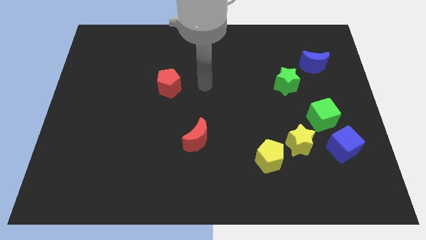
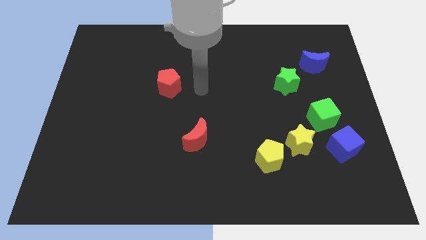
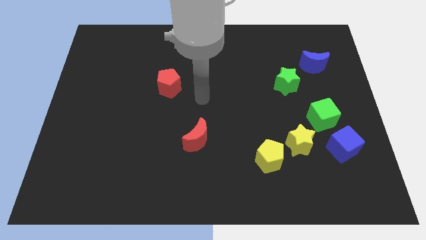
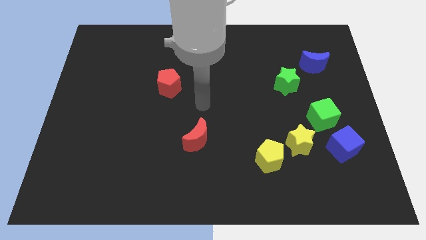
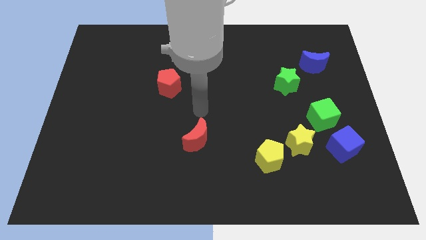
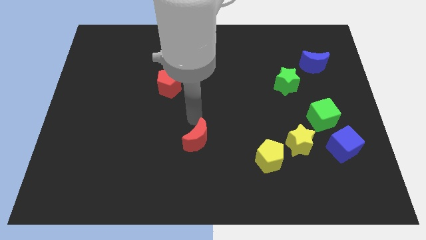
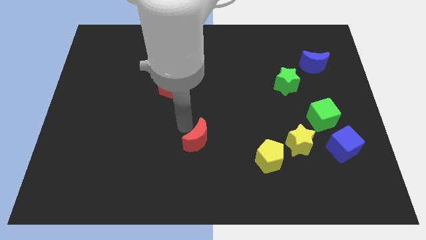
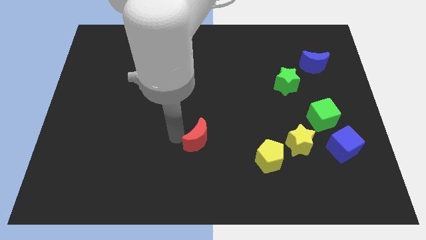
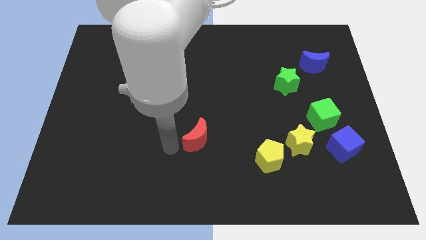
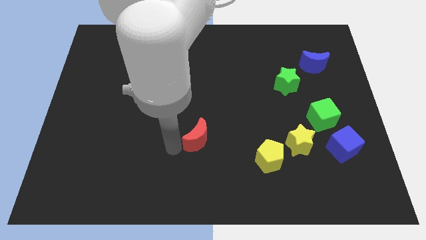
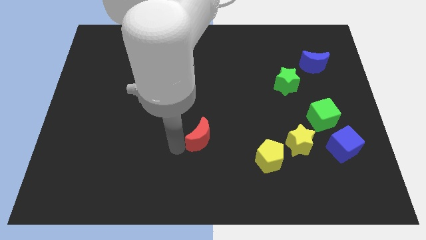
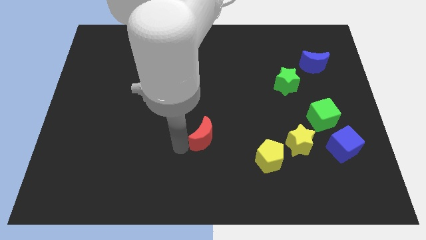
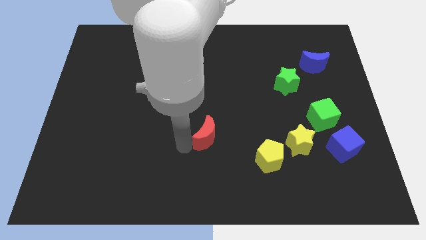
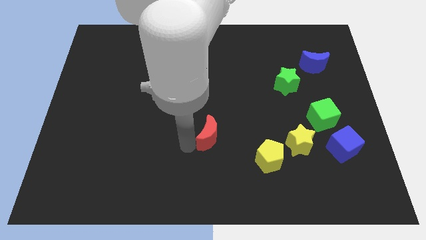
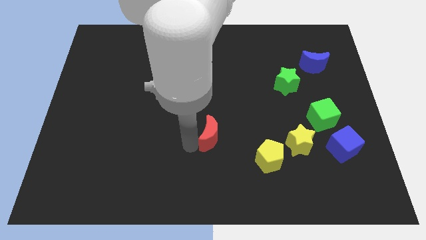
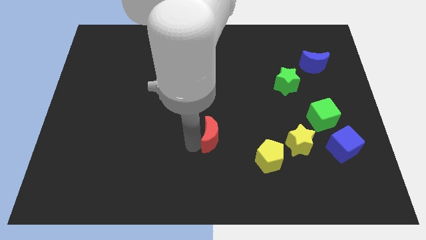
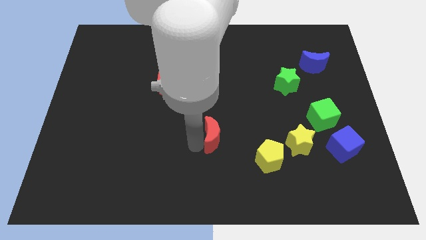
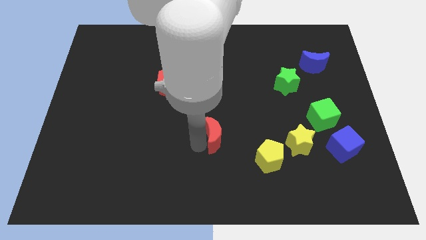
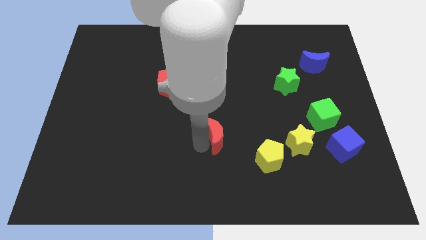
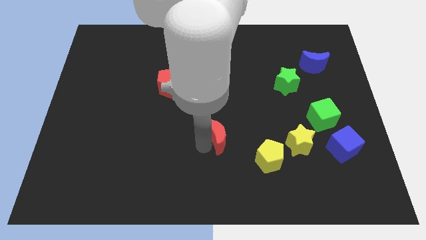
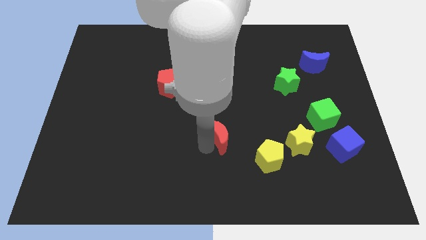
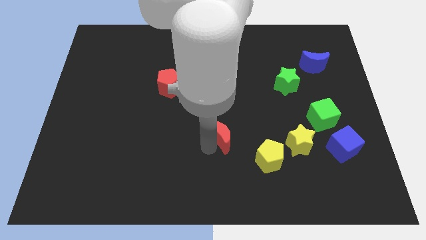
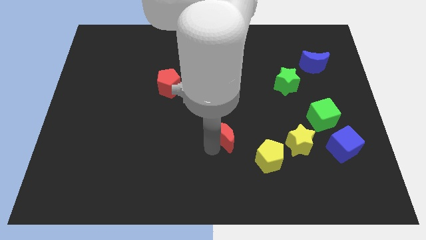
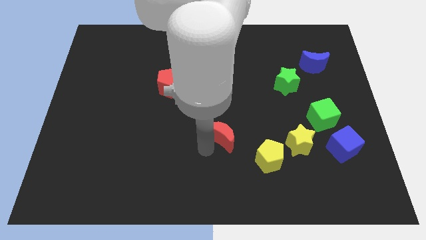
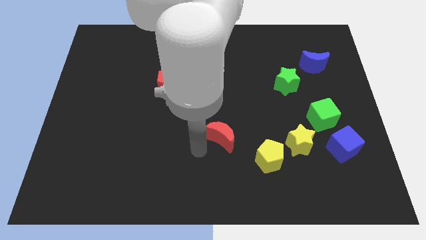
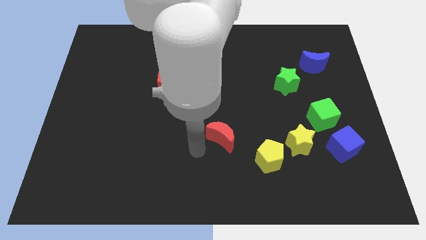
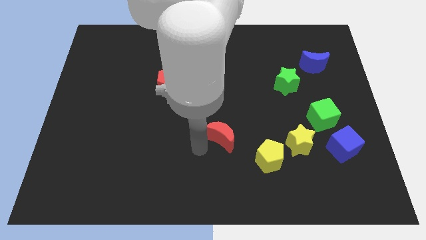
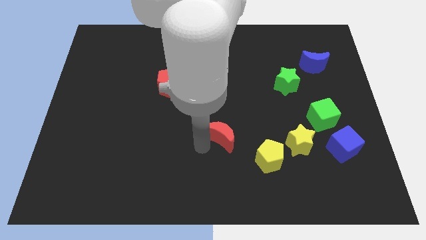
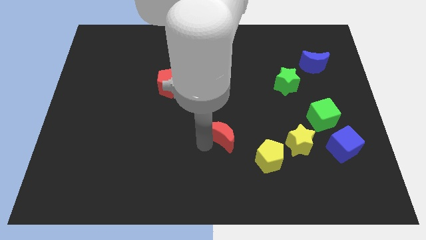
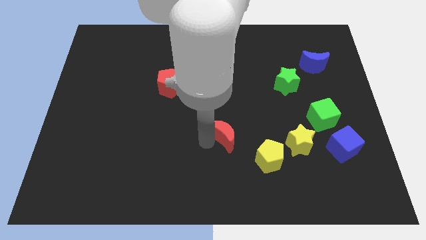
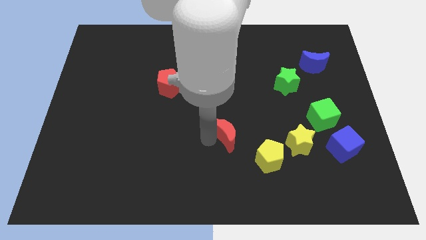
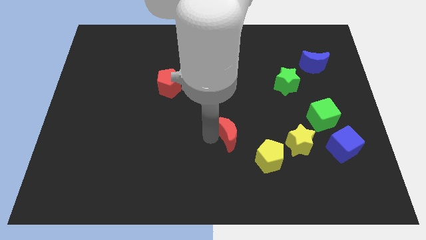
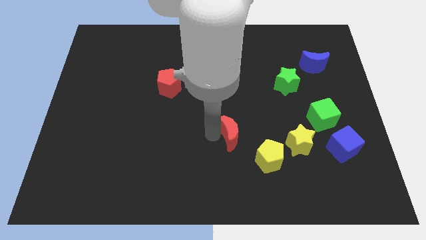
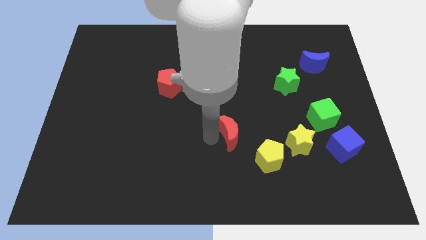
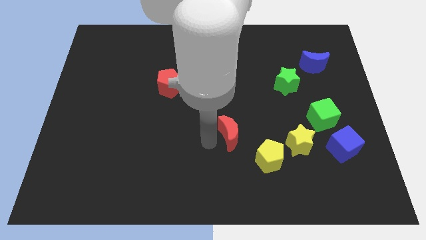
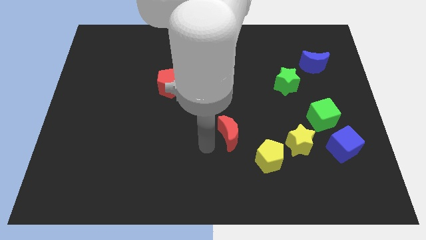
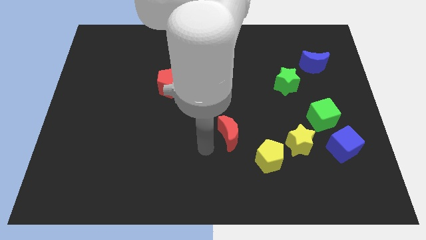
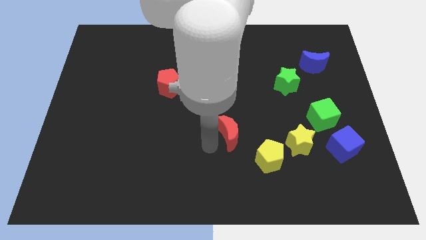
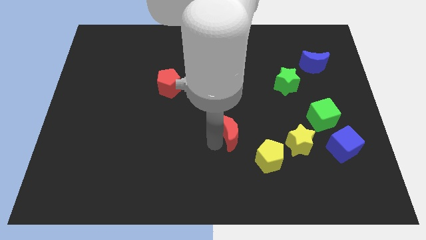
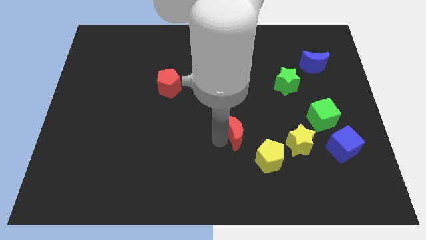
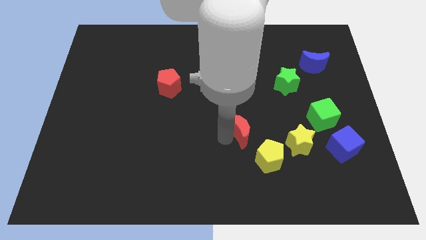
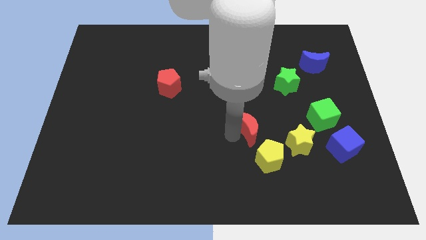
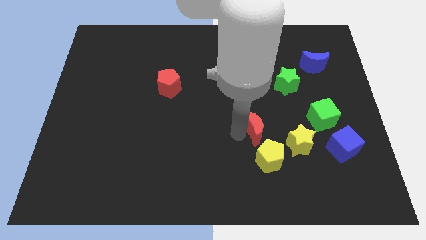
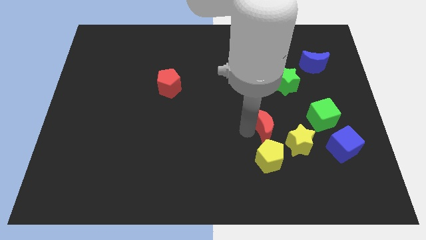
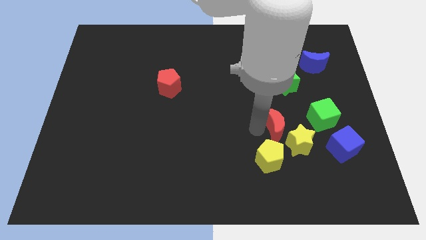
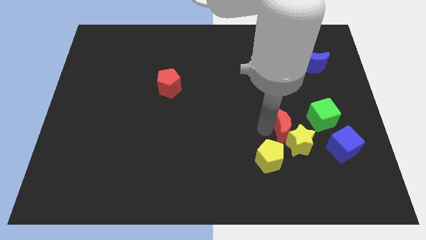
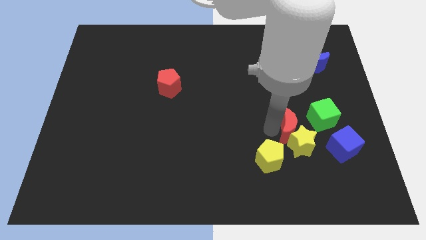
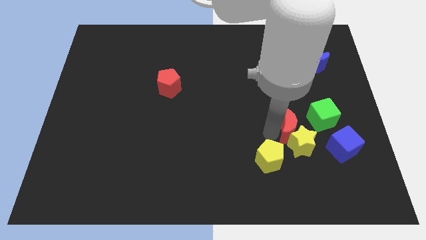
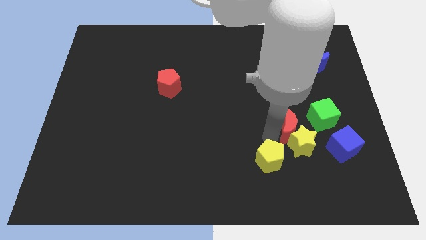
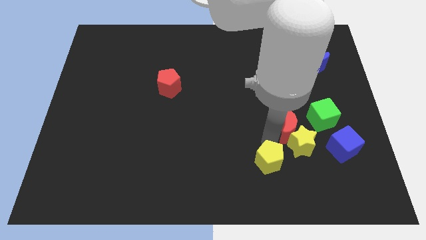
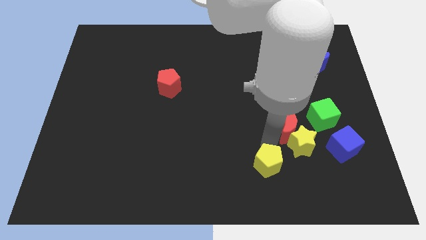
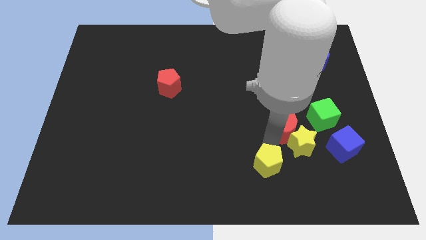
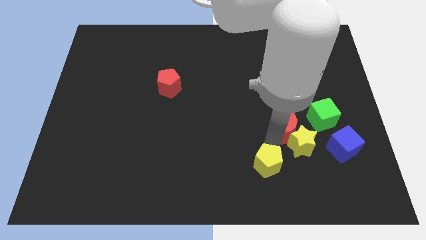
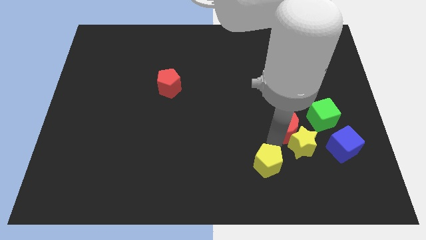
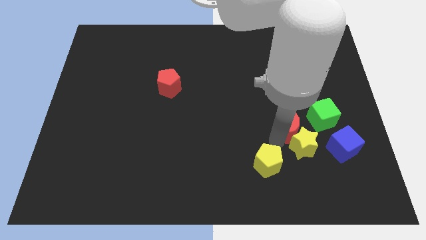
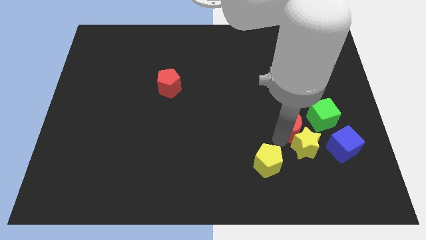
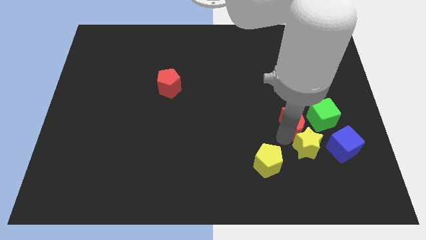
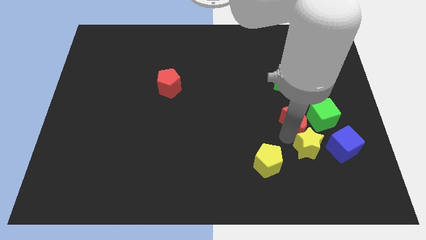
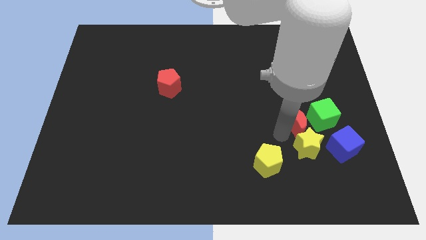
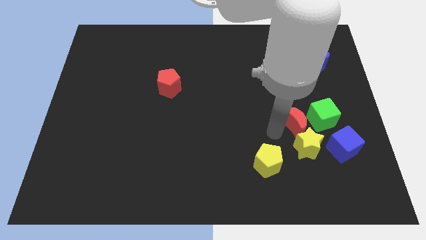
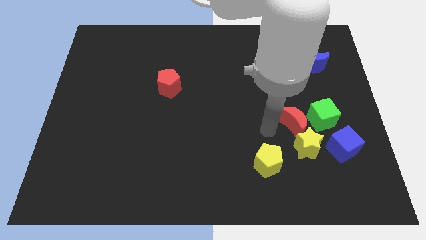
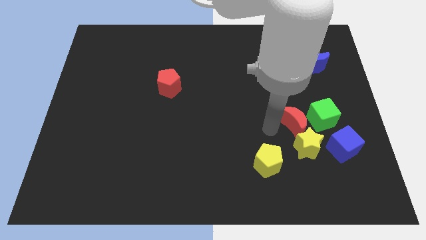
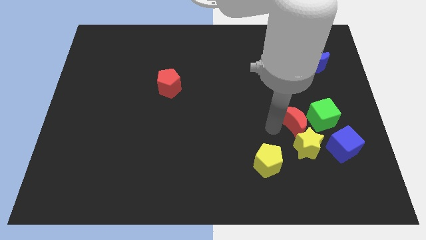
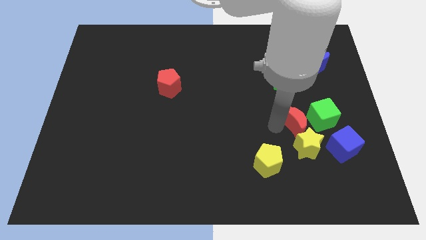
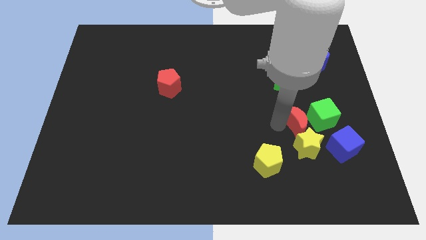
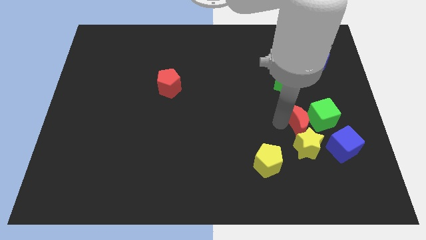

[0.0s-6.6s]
put the red moon to the green cube
